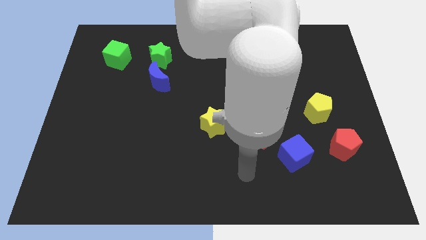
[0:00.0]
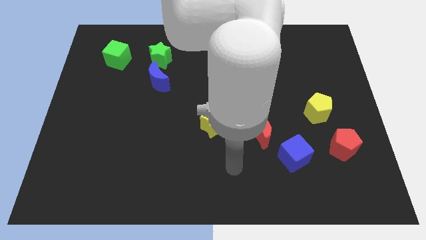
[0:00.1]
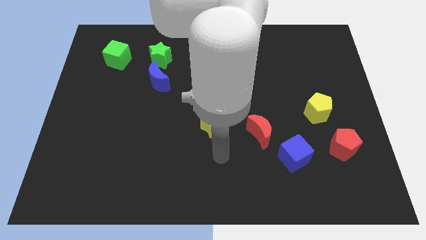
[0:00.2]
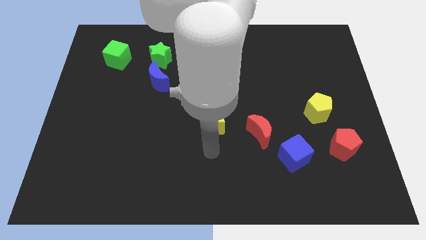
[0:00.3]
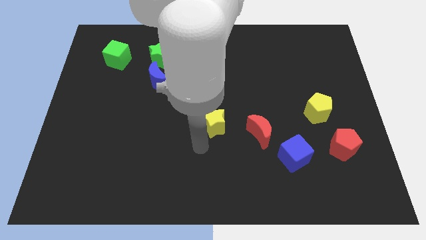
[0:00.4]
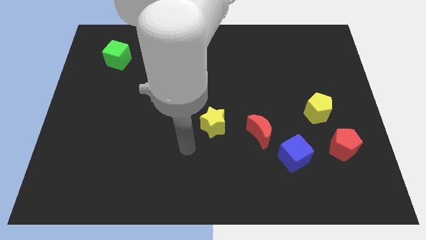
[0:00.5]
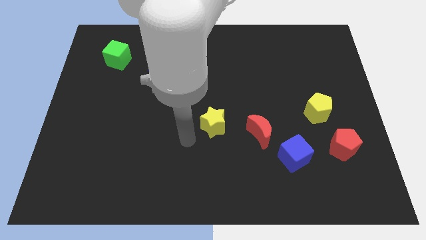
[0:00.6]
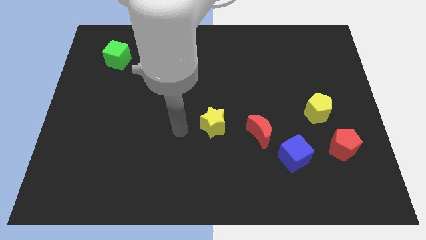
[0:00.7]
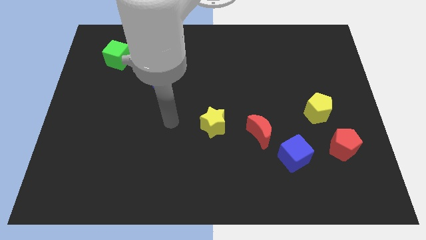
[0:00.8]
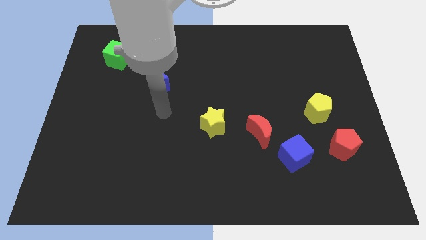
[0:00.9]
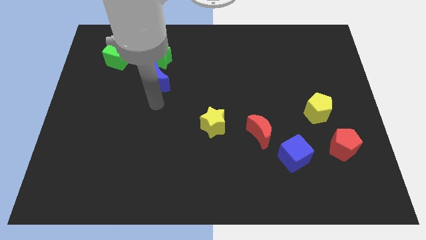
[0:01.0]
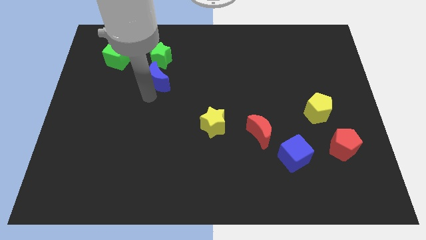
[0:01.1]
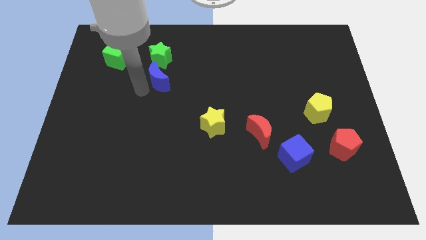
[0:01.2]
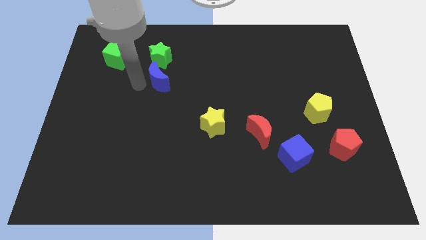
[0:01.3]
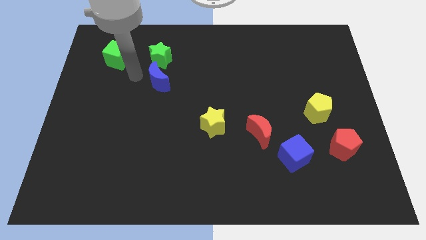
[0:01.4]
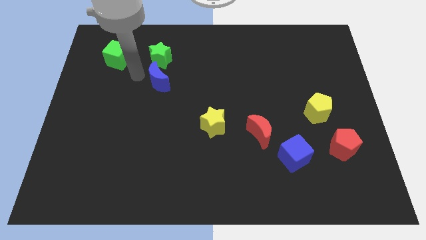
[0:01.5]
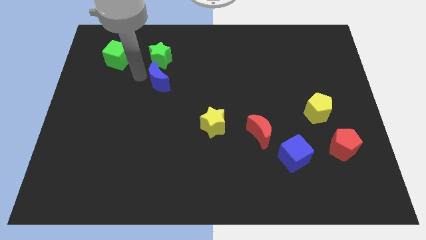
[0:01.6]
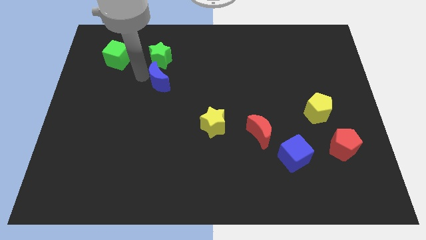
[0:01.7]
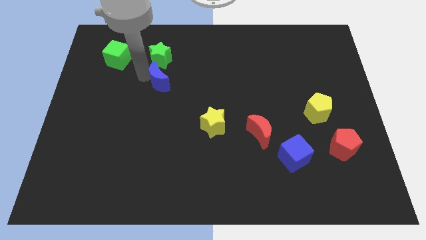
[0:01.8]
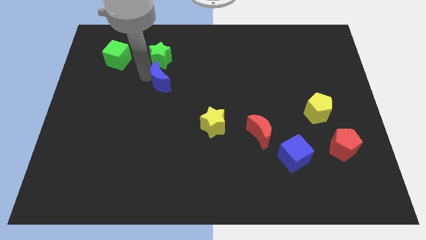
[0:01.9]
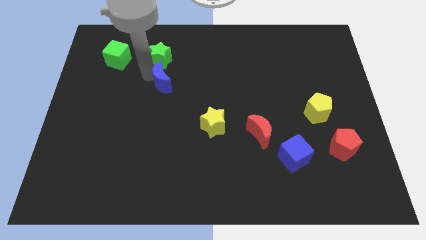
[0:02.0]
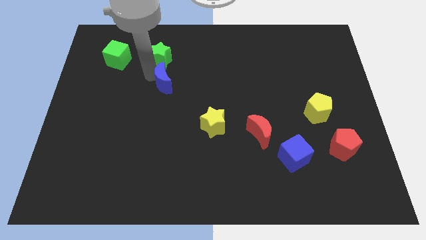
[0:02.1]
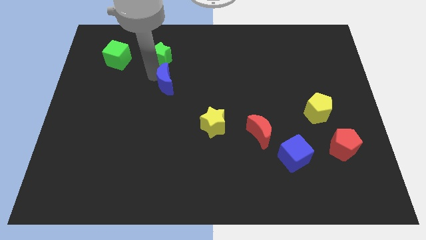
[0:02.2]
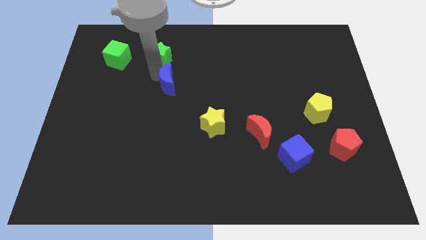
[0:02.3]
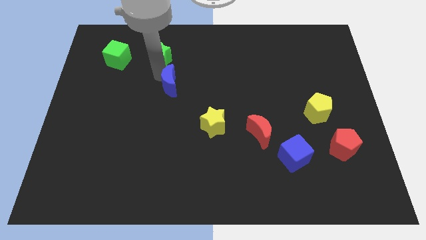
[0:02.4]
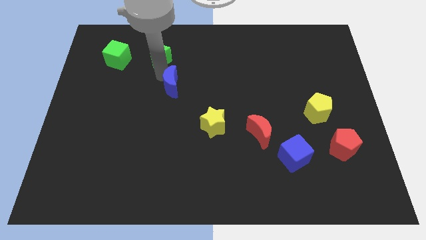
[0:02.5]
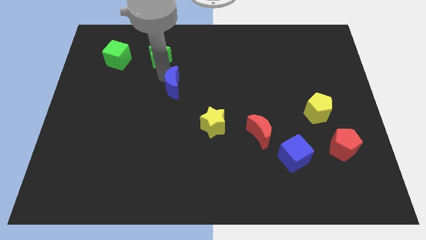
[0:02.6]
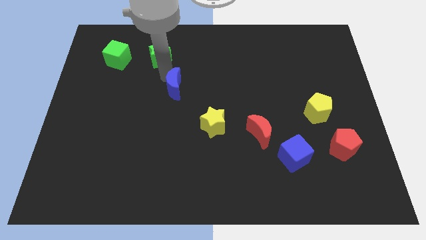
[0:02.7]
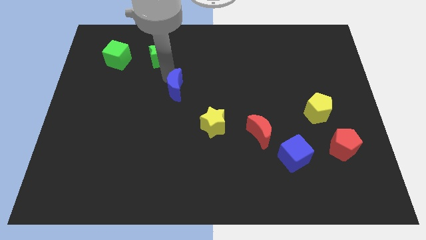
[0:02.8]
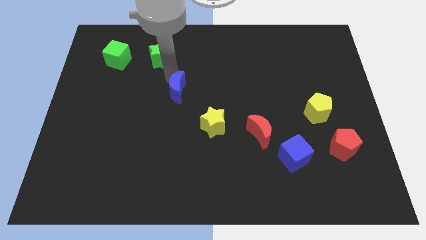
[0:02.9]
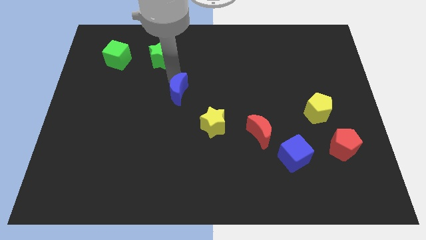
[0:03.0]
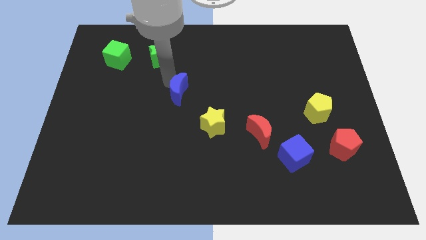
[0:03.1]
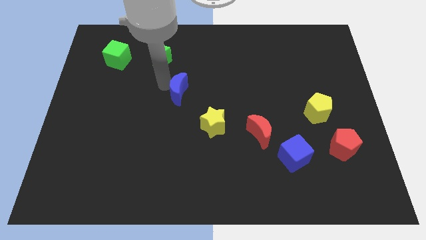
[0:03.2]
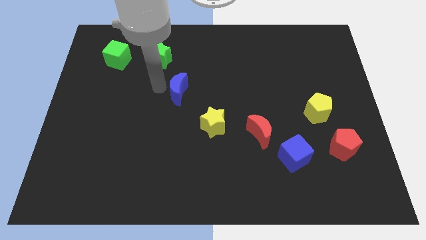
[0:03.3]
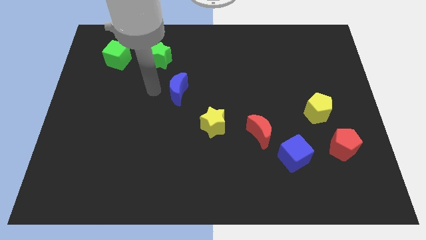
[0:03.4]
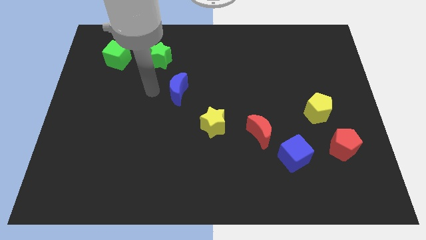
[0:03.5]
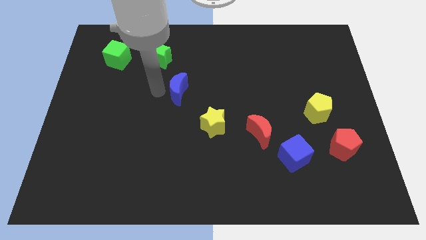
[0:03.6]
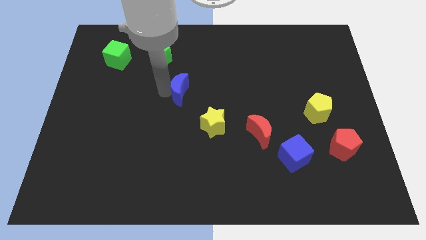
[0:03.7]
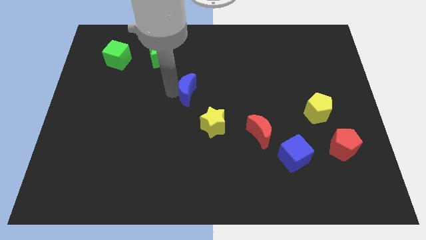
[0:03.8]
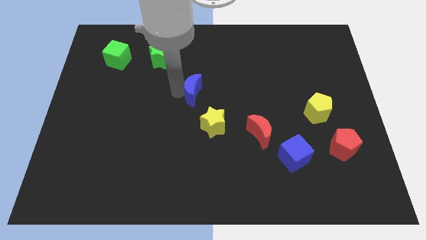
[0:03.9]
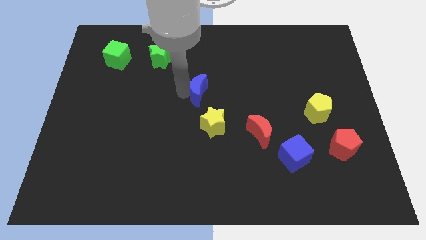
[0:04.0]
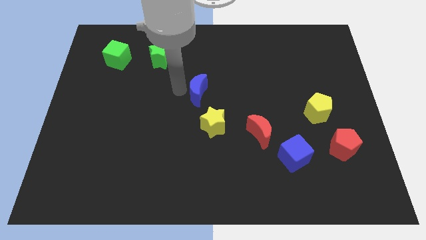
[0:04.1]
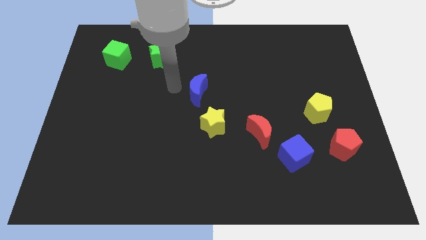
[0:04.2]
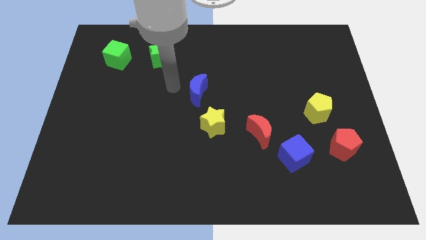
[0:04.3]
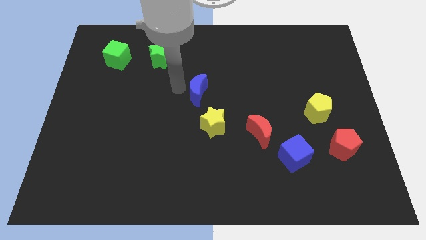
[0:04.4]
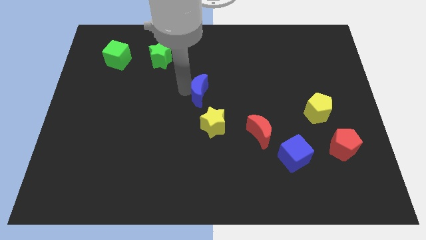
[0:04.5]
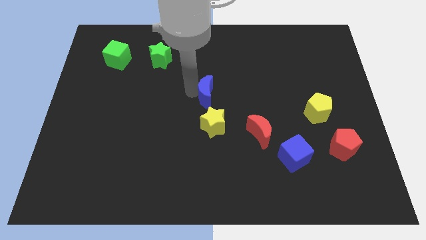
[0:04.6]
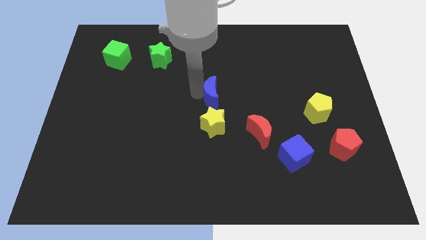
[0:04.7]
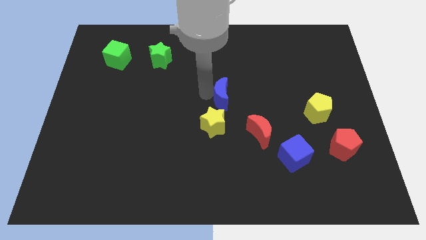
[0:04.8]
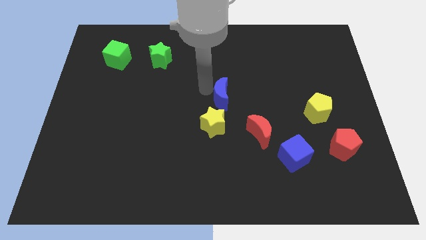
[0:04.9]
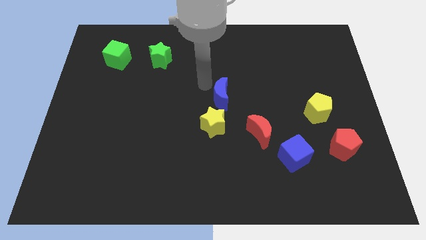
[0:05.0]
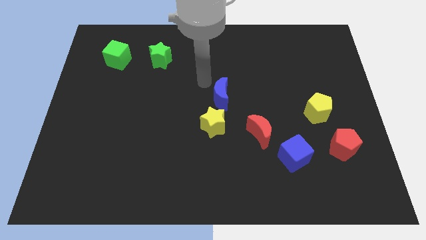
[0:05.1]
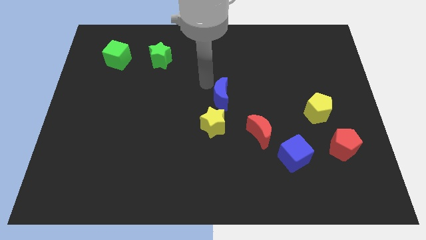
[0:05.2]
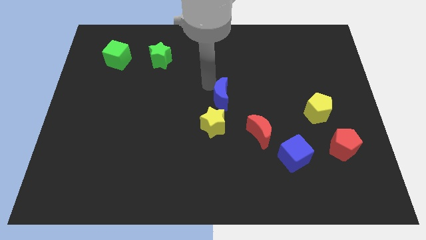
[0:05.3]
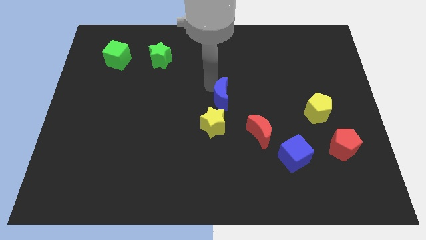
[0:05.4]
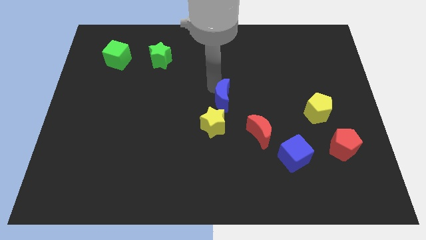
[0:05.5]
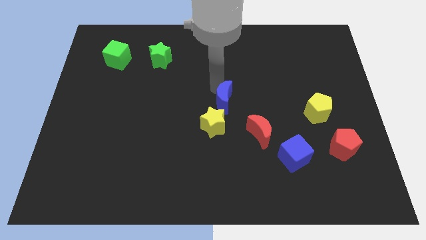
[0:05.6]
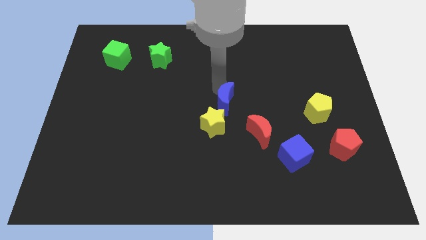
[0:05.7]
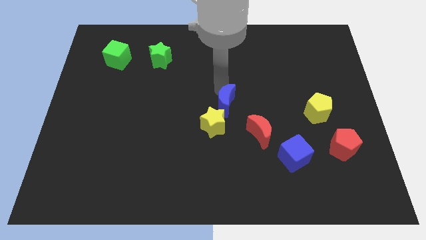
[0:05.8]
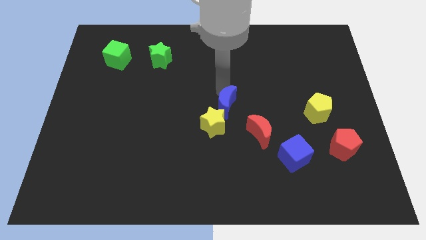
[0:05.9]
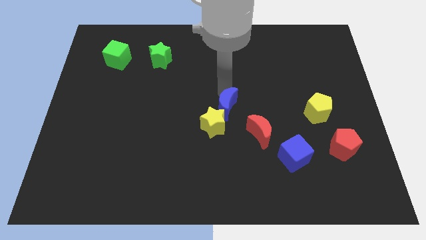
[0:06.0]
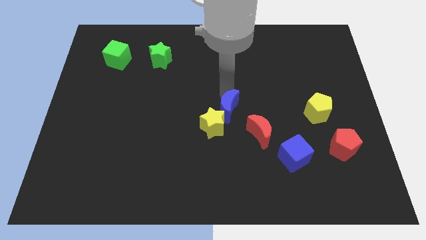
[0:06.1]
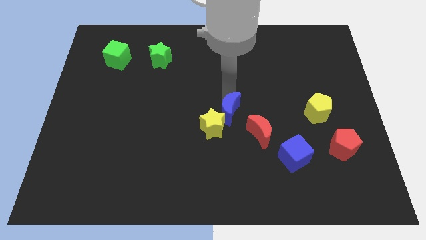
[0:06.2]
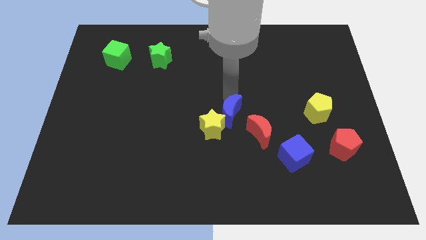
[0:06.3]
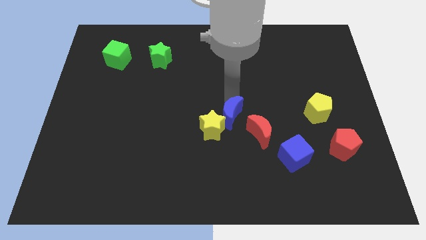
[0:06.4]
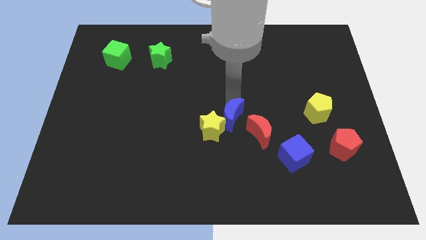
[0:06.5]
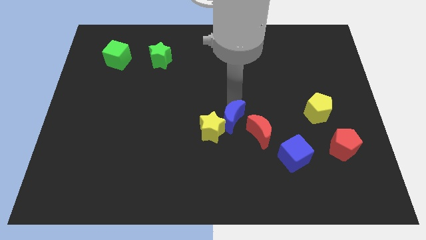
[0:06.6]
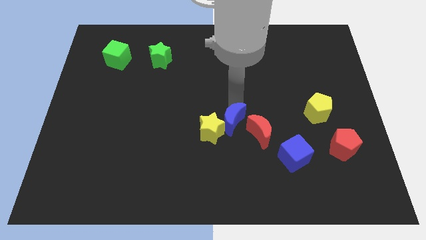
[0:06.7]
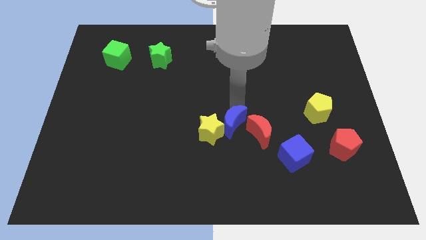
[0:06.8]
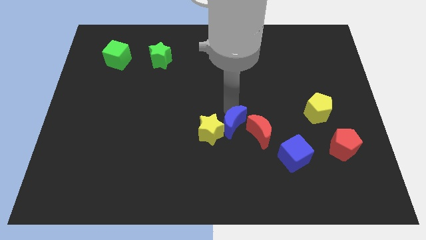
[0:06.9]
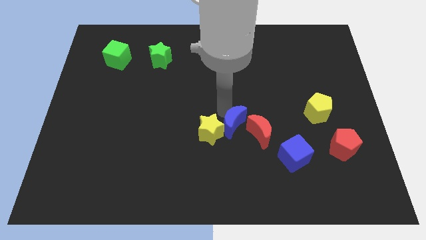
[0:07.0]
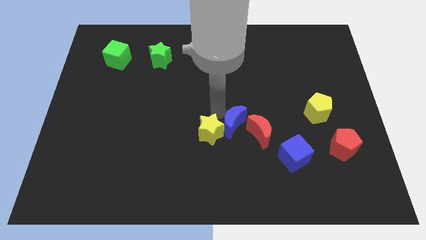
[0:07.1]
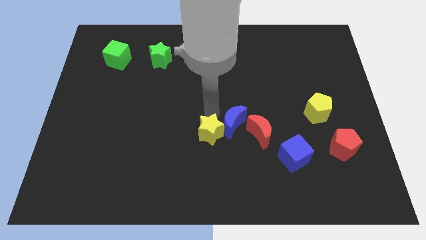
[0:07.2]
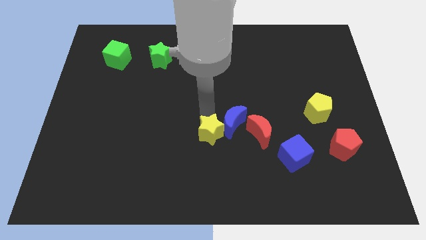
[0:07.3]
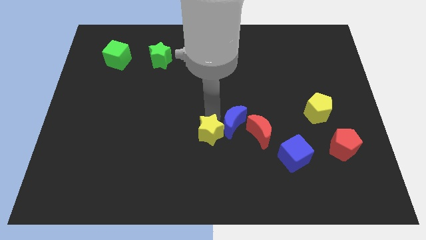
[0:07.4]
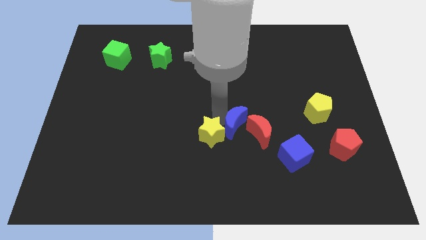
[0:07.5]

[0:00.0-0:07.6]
move the blue moon to the red moon
